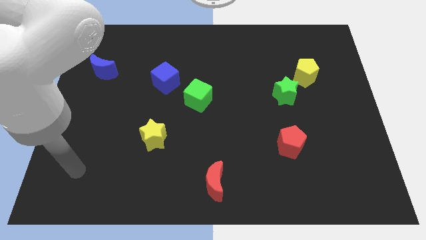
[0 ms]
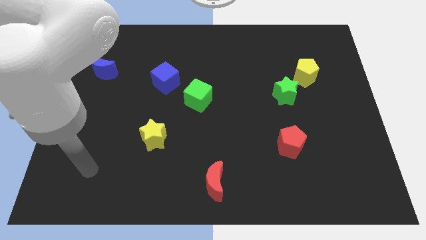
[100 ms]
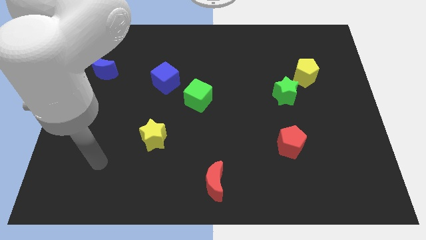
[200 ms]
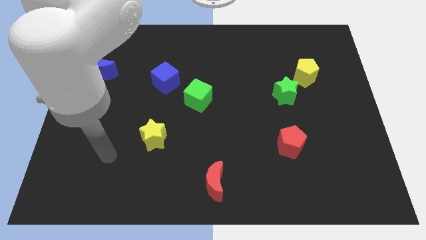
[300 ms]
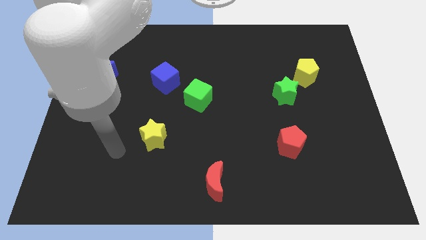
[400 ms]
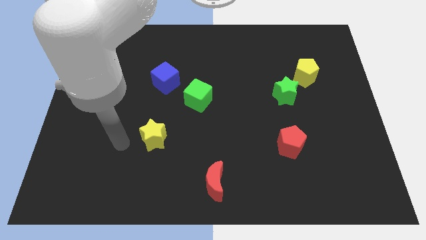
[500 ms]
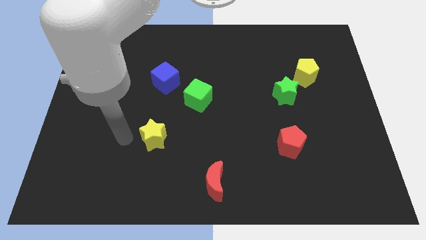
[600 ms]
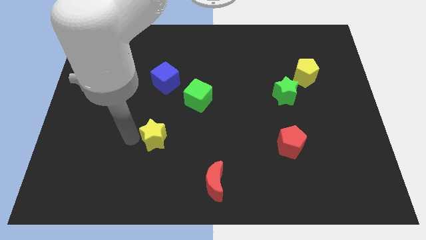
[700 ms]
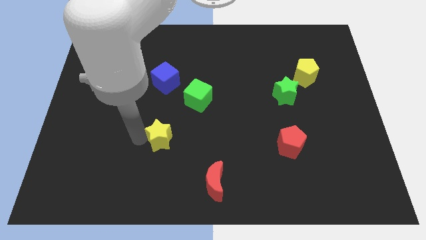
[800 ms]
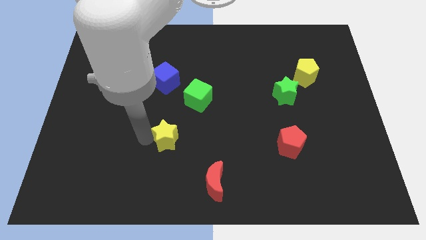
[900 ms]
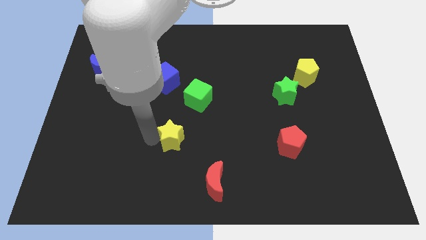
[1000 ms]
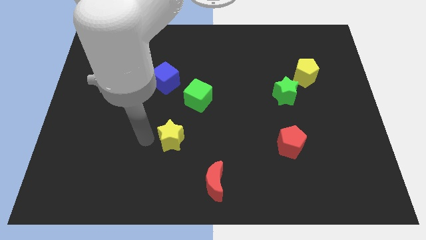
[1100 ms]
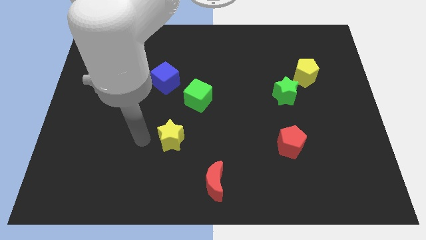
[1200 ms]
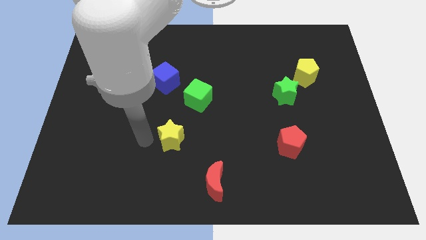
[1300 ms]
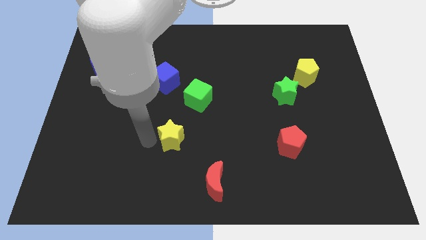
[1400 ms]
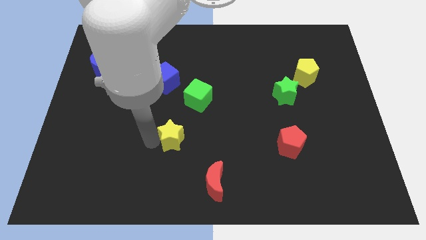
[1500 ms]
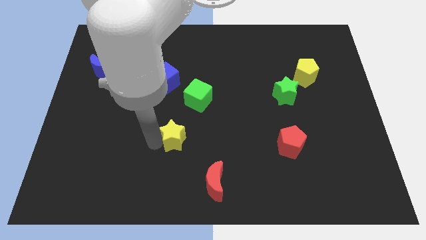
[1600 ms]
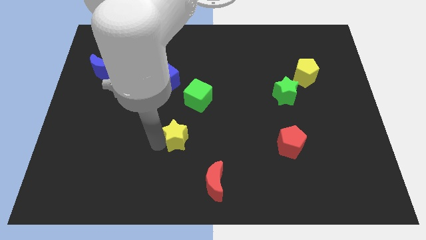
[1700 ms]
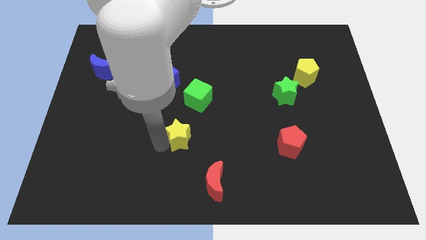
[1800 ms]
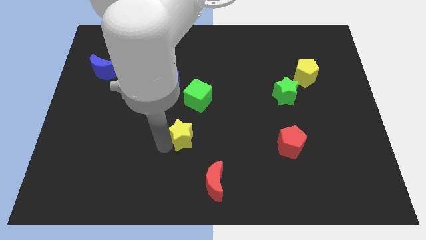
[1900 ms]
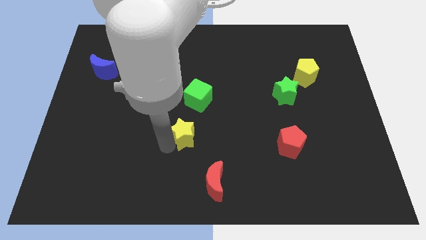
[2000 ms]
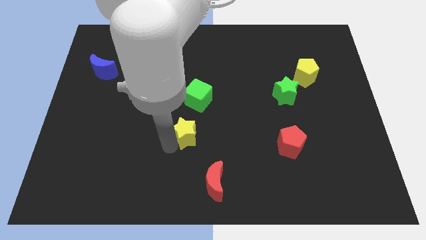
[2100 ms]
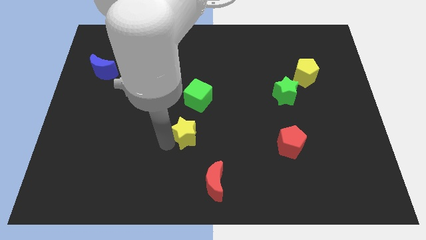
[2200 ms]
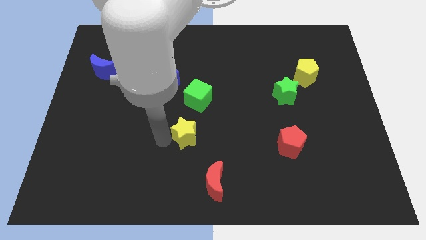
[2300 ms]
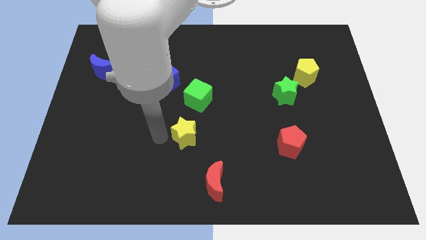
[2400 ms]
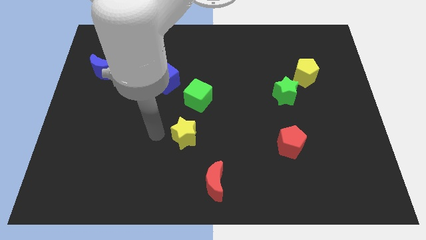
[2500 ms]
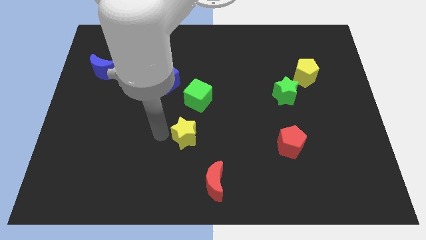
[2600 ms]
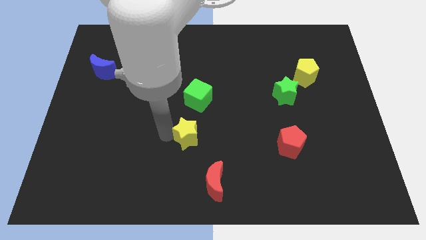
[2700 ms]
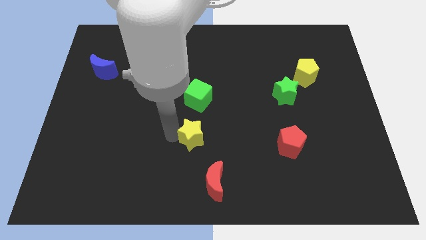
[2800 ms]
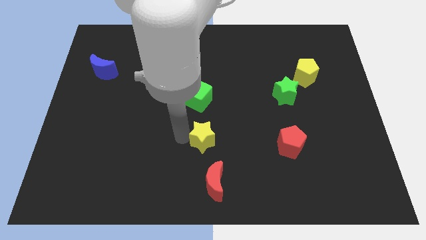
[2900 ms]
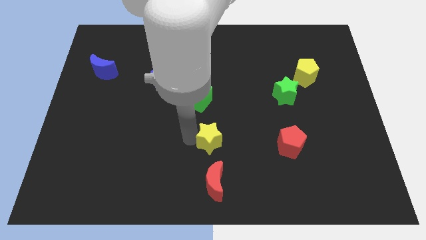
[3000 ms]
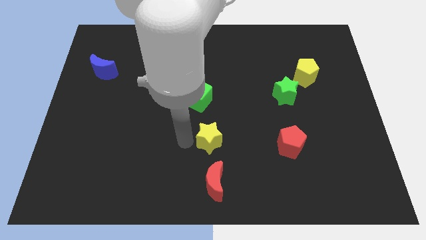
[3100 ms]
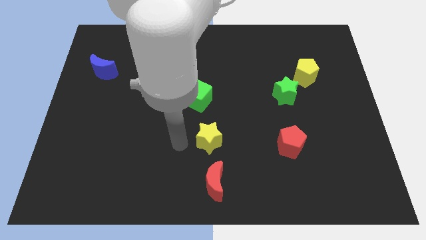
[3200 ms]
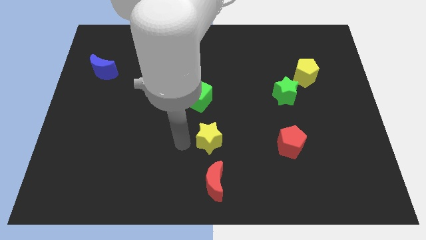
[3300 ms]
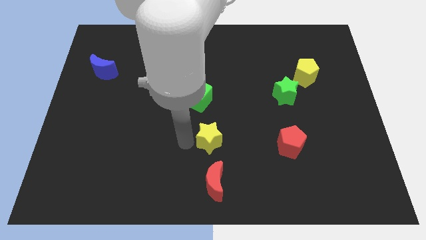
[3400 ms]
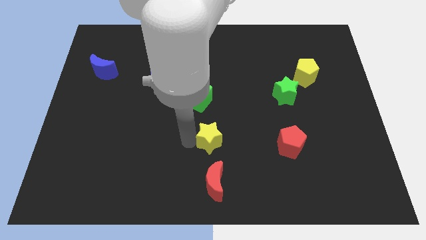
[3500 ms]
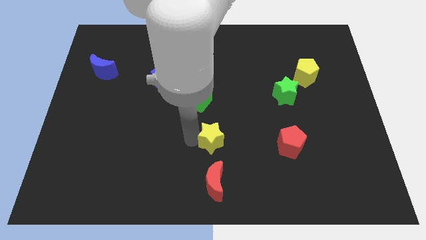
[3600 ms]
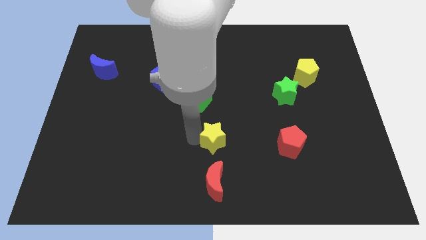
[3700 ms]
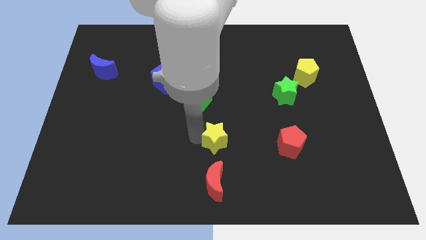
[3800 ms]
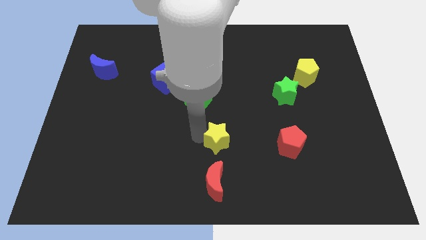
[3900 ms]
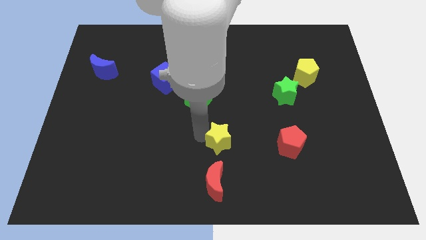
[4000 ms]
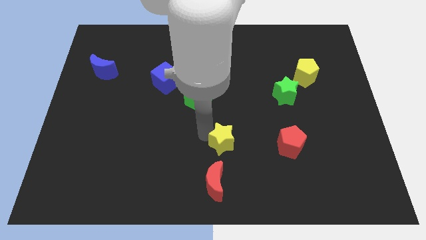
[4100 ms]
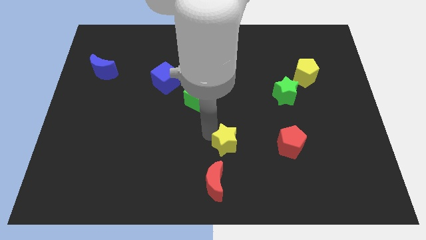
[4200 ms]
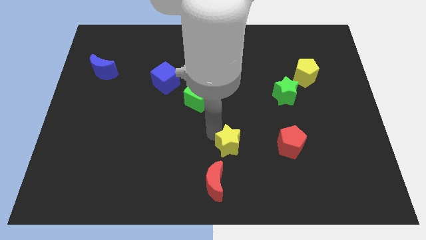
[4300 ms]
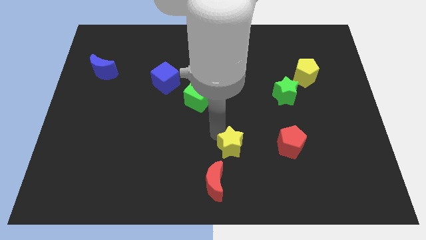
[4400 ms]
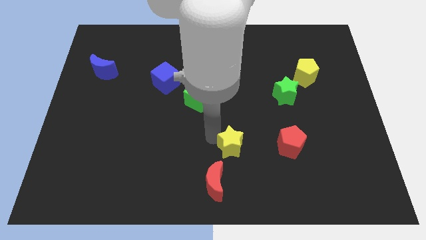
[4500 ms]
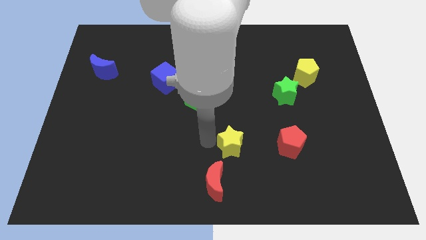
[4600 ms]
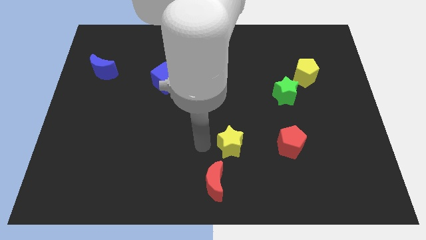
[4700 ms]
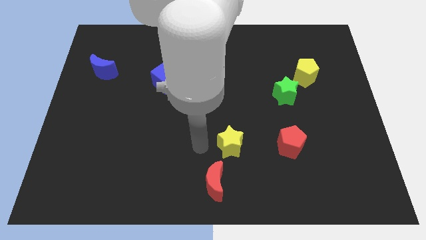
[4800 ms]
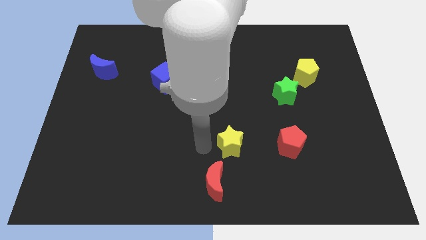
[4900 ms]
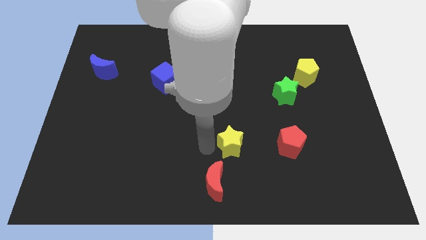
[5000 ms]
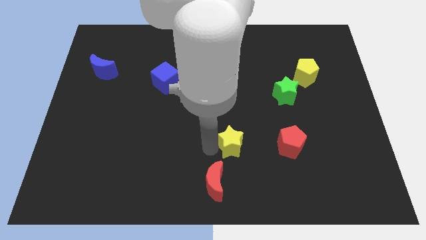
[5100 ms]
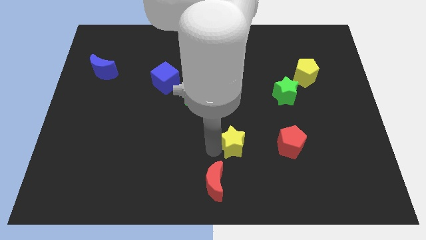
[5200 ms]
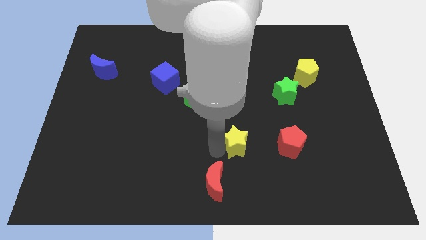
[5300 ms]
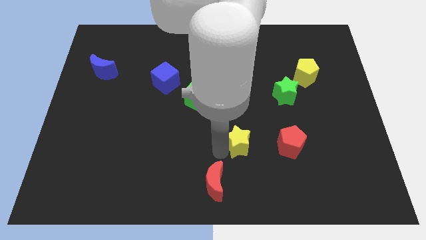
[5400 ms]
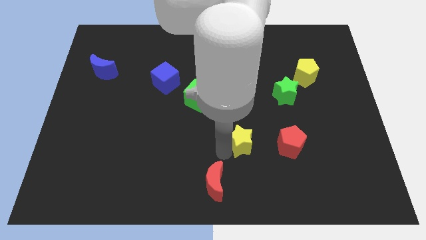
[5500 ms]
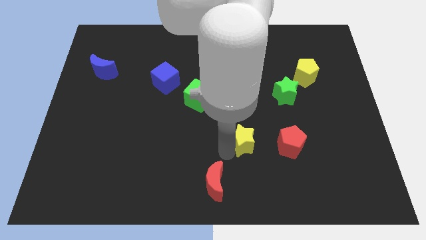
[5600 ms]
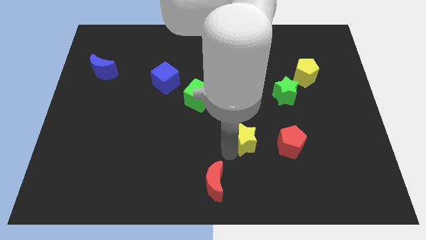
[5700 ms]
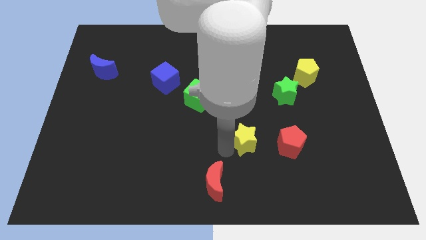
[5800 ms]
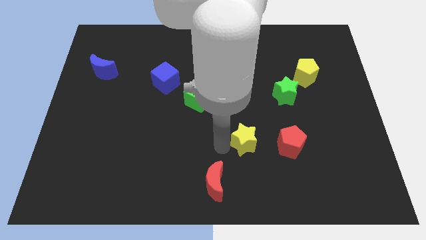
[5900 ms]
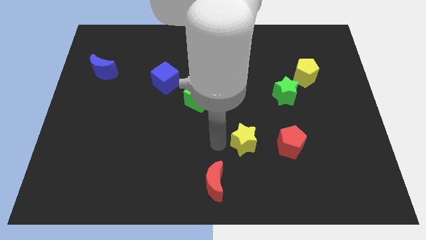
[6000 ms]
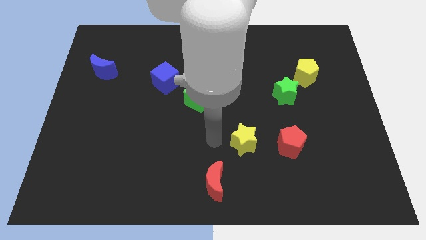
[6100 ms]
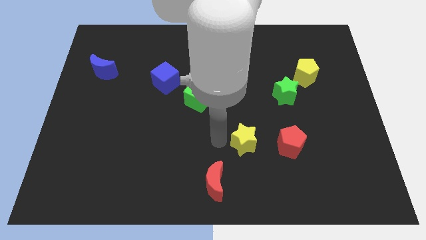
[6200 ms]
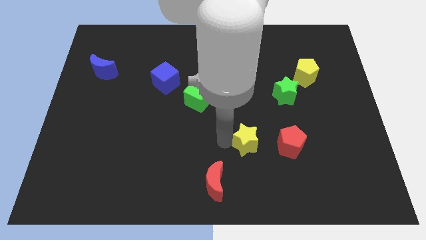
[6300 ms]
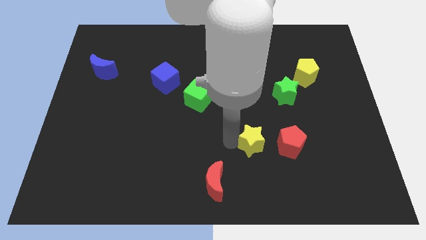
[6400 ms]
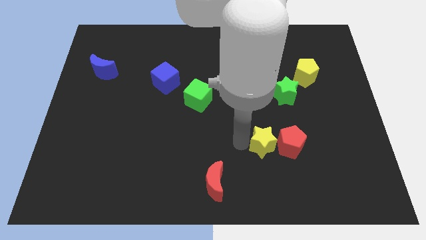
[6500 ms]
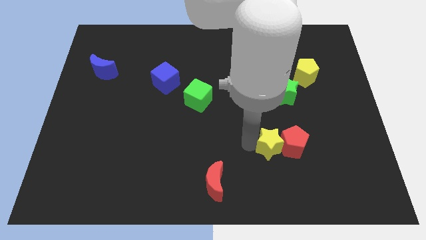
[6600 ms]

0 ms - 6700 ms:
push the yellow star next to the red pentagon

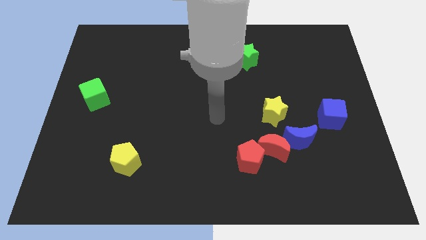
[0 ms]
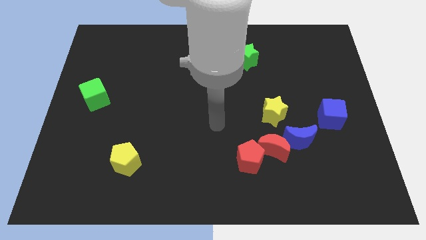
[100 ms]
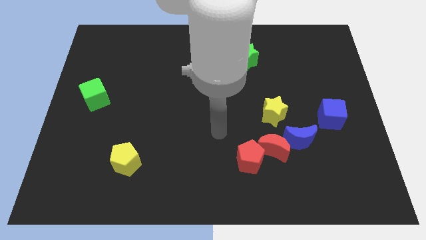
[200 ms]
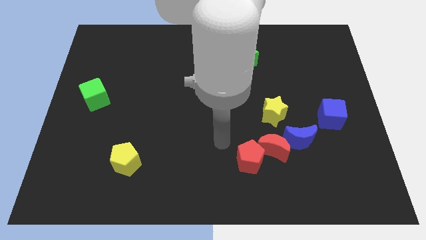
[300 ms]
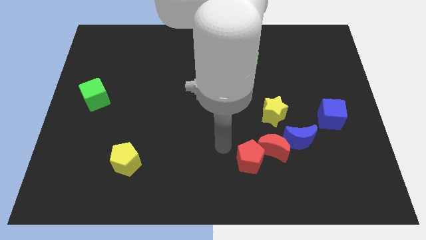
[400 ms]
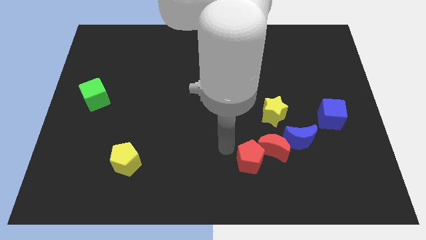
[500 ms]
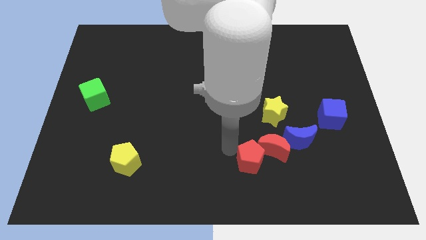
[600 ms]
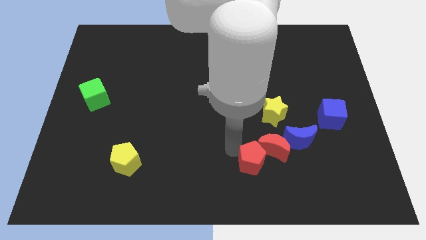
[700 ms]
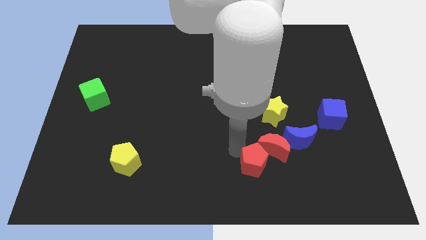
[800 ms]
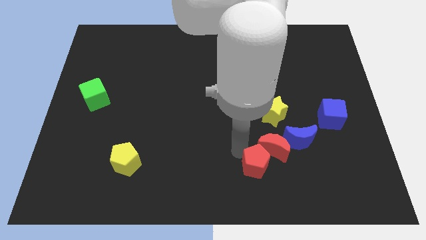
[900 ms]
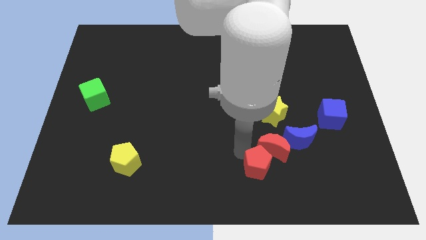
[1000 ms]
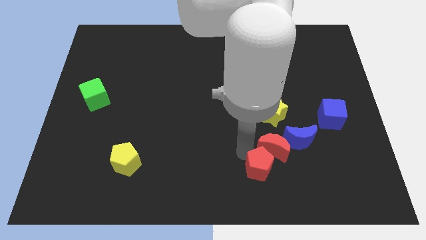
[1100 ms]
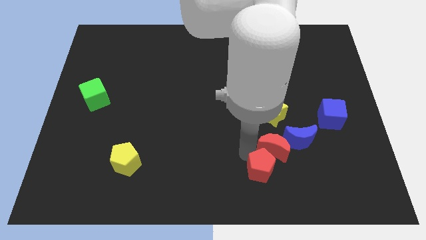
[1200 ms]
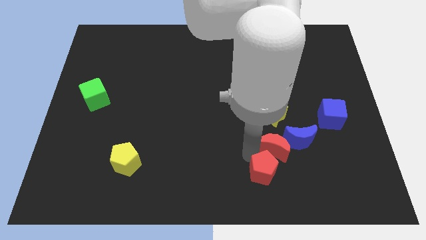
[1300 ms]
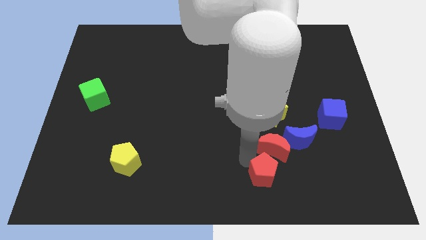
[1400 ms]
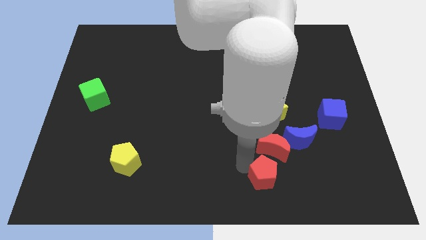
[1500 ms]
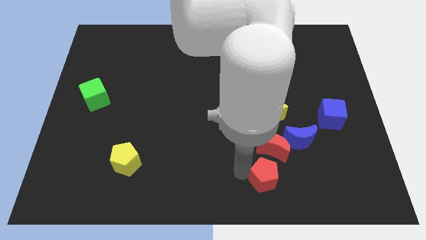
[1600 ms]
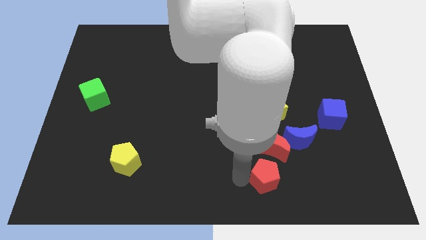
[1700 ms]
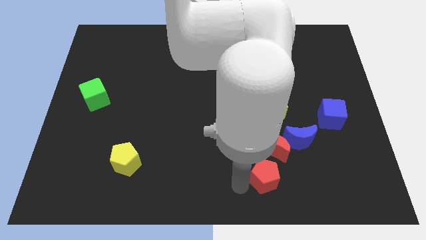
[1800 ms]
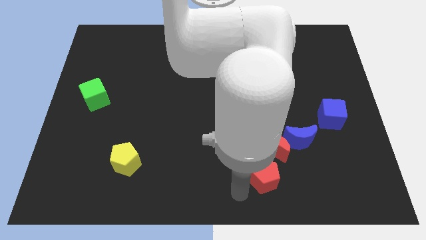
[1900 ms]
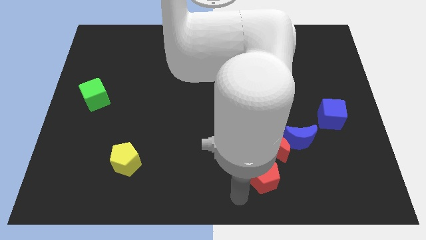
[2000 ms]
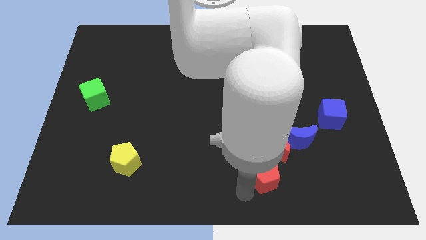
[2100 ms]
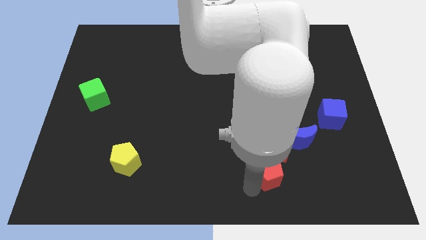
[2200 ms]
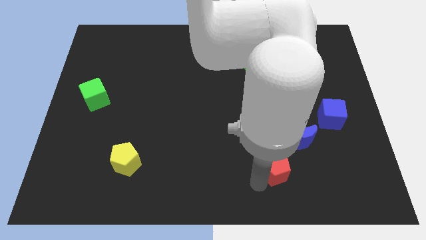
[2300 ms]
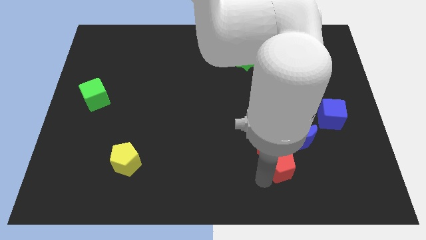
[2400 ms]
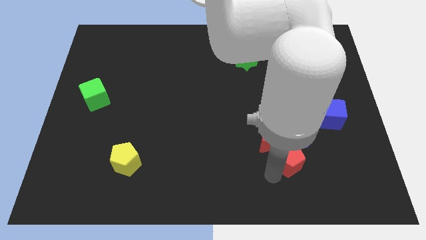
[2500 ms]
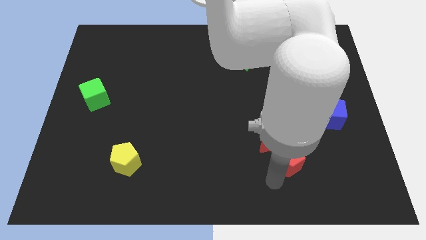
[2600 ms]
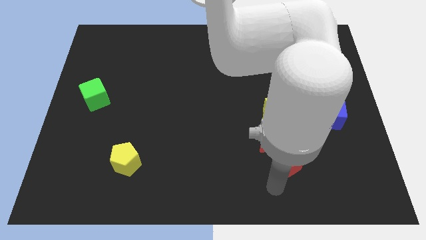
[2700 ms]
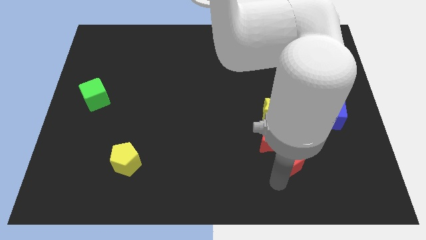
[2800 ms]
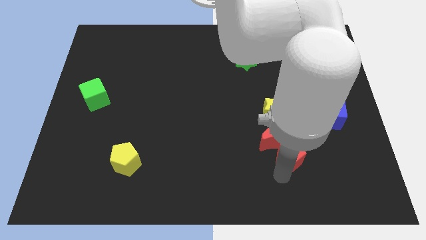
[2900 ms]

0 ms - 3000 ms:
push the red pentagon close to the blue moon
